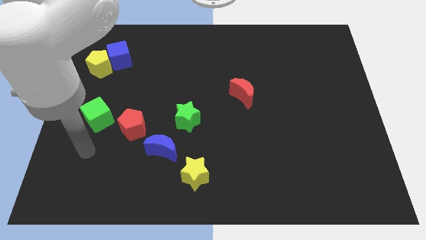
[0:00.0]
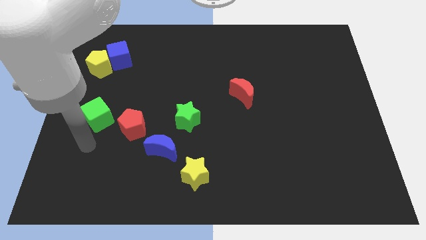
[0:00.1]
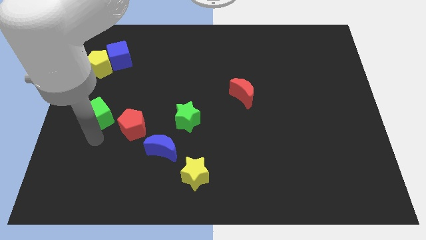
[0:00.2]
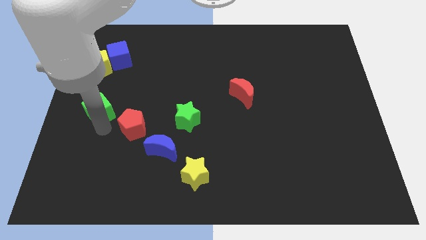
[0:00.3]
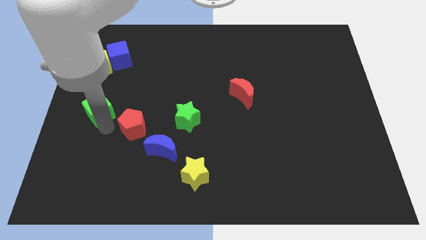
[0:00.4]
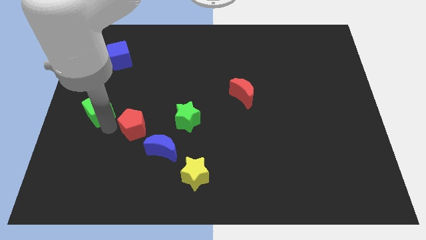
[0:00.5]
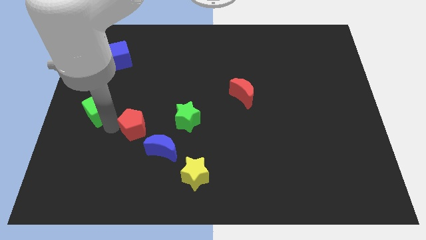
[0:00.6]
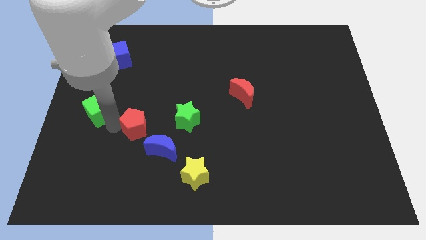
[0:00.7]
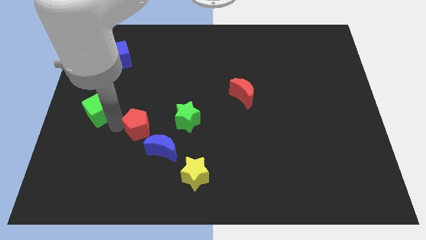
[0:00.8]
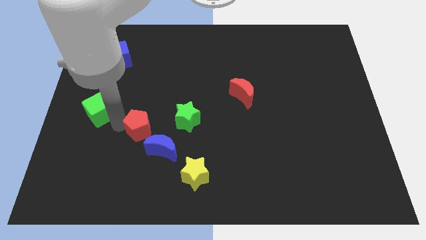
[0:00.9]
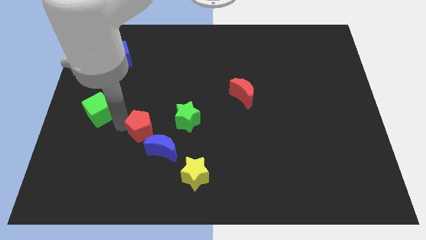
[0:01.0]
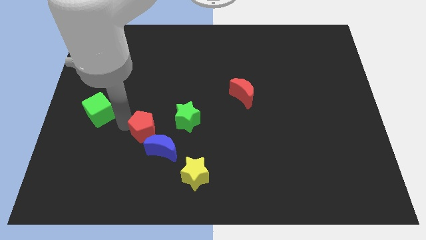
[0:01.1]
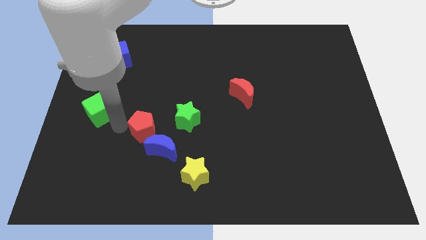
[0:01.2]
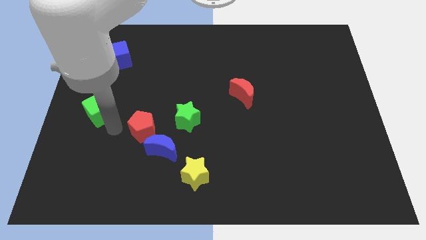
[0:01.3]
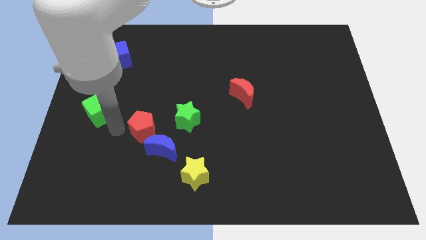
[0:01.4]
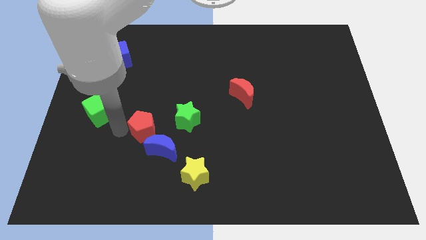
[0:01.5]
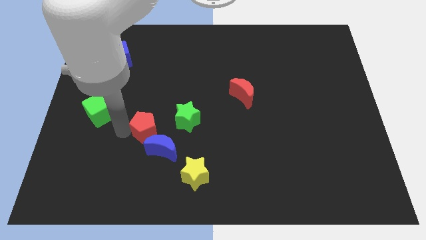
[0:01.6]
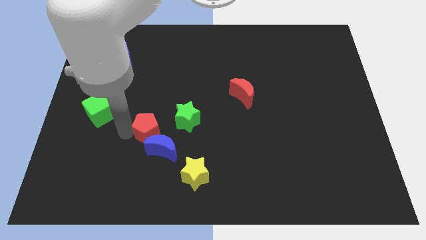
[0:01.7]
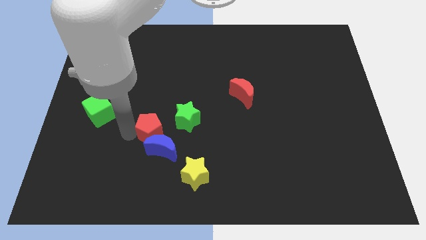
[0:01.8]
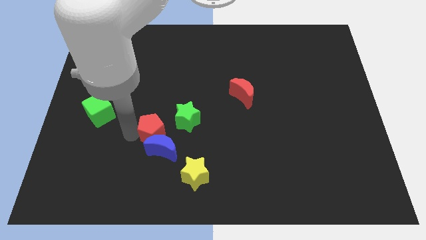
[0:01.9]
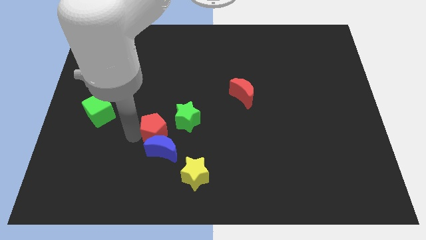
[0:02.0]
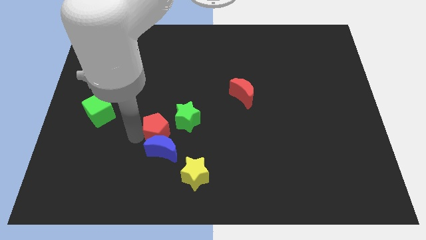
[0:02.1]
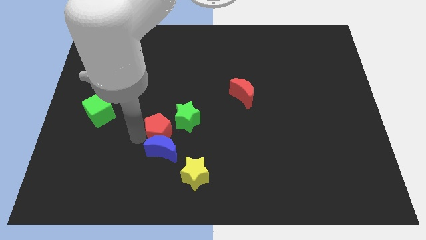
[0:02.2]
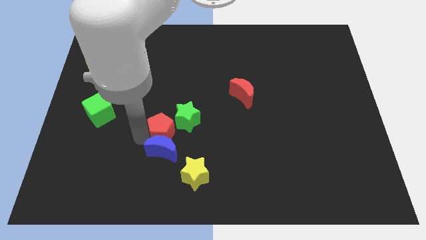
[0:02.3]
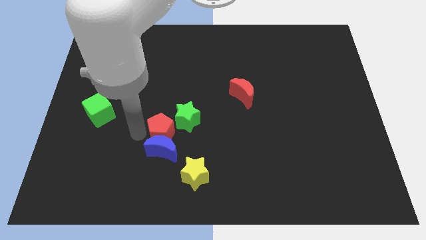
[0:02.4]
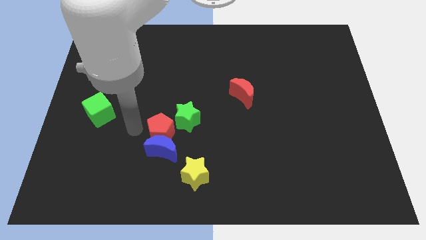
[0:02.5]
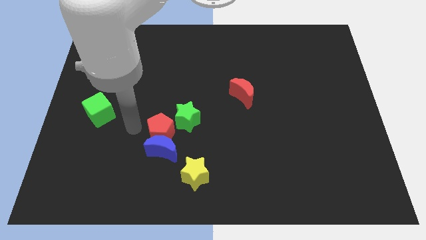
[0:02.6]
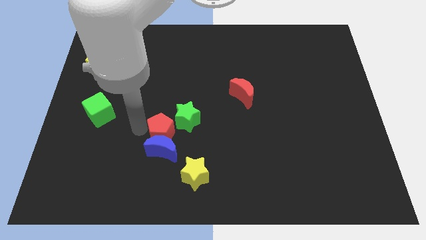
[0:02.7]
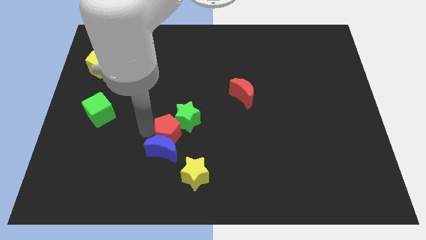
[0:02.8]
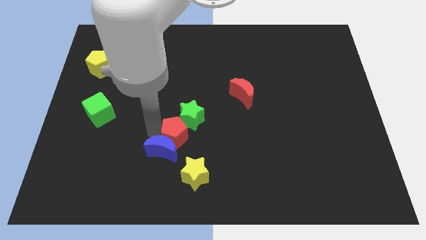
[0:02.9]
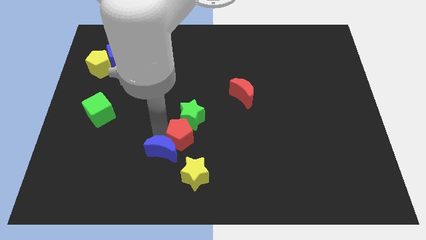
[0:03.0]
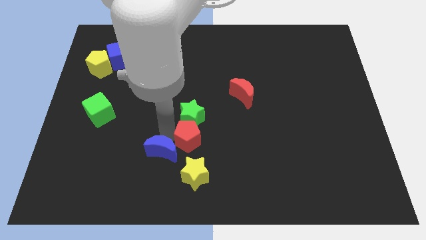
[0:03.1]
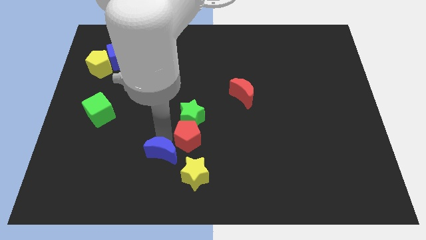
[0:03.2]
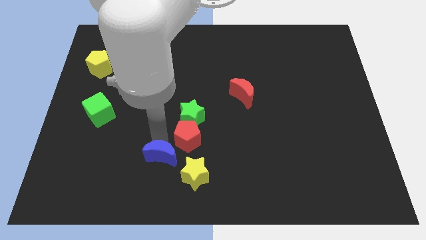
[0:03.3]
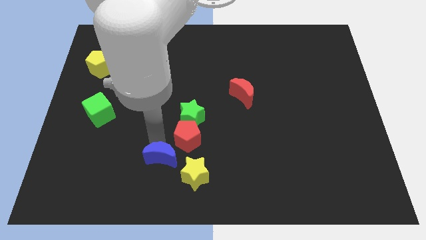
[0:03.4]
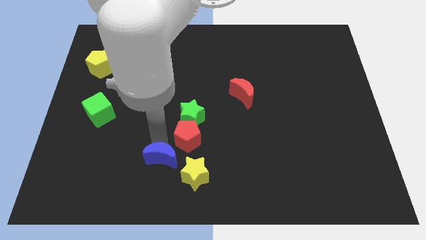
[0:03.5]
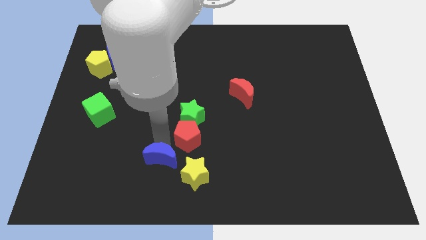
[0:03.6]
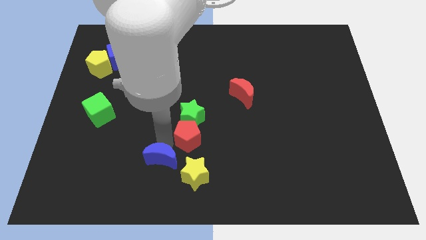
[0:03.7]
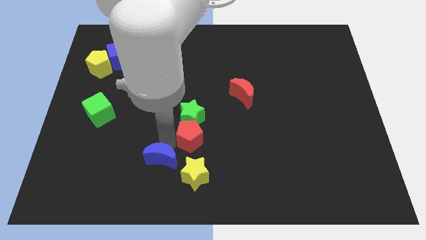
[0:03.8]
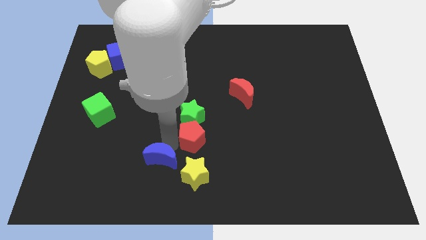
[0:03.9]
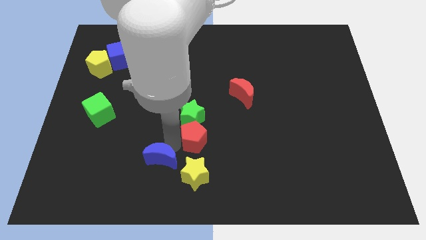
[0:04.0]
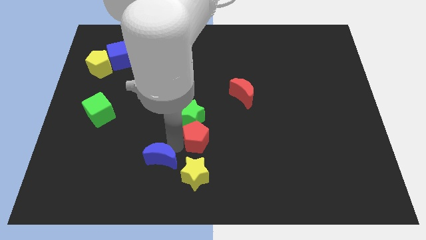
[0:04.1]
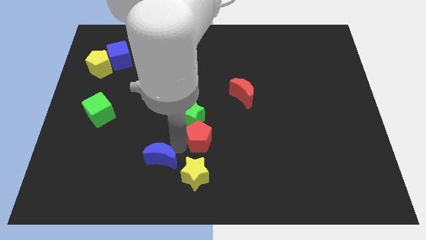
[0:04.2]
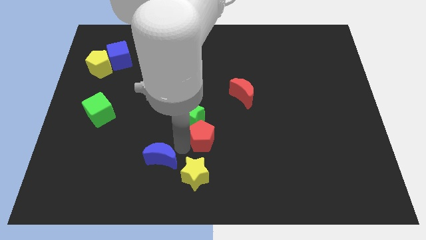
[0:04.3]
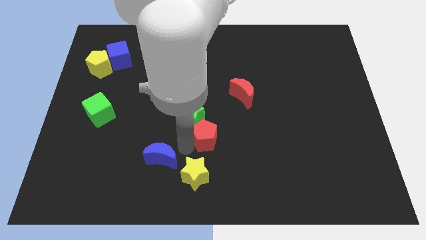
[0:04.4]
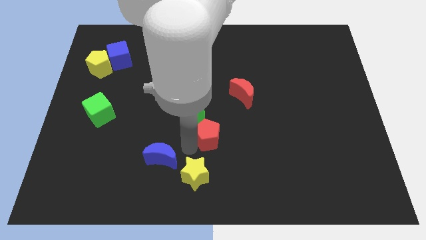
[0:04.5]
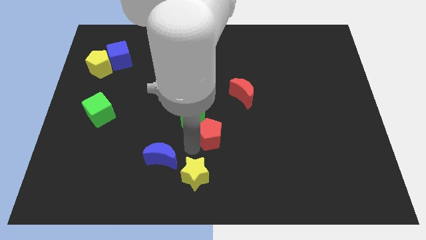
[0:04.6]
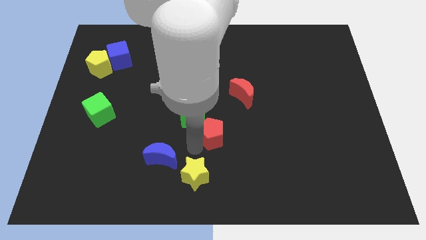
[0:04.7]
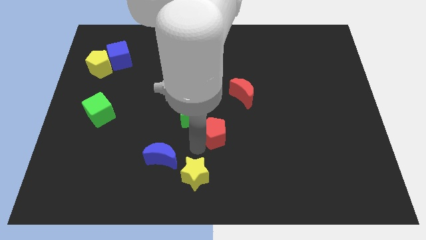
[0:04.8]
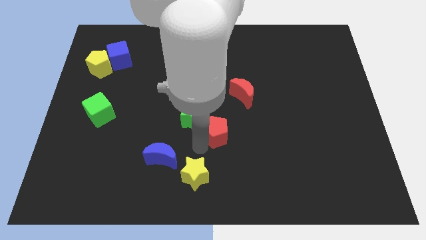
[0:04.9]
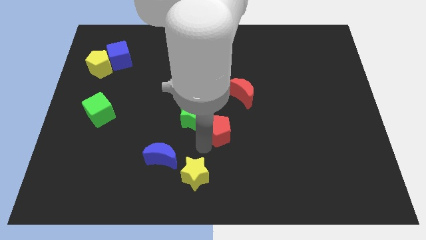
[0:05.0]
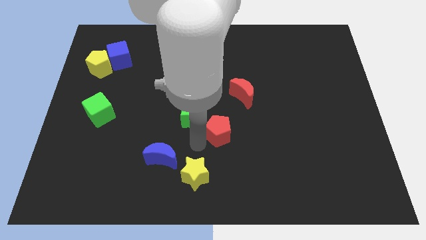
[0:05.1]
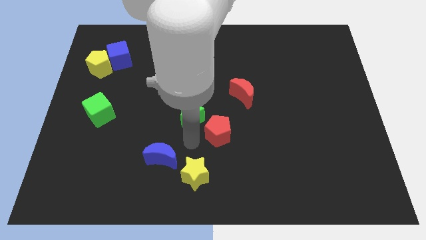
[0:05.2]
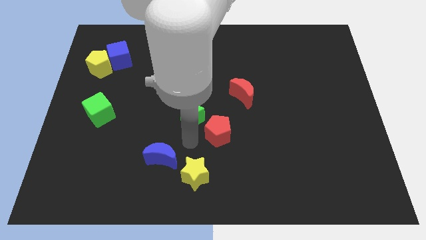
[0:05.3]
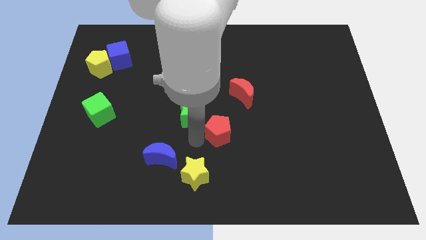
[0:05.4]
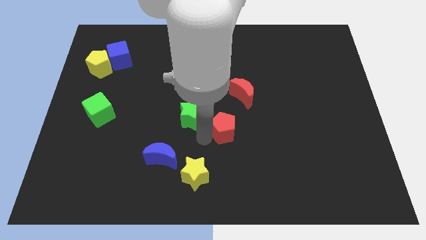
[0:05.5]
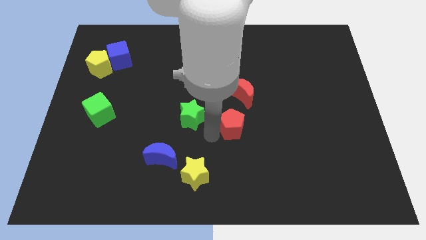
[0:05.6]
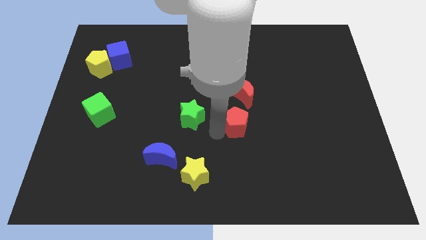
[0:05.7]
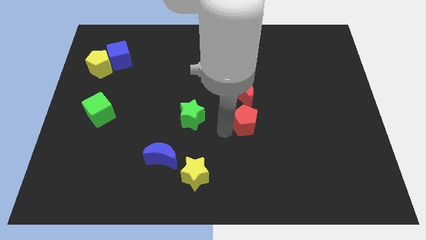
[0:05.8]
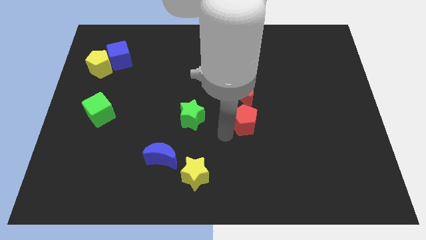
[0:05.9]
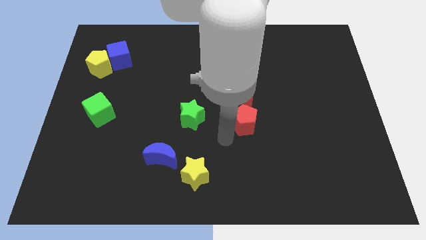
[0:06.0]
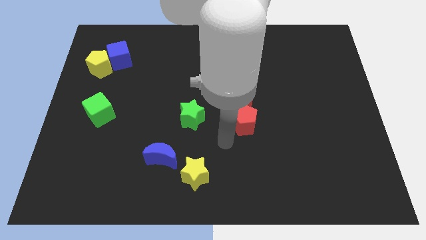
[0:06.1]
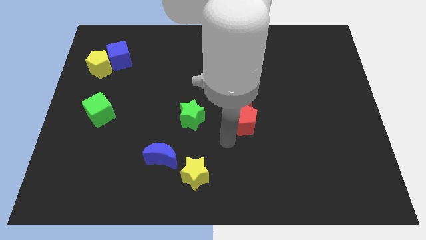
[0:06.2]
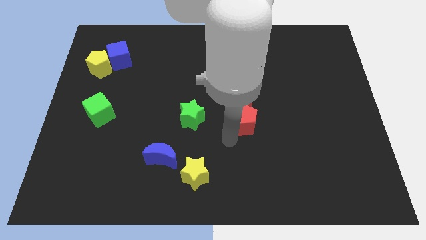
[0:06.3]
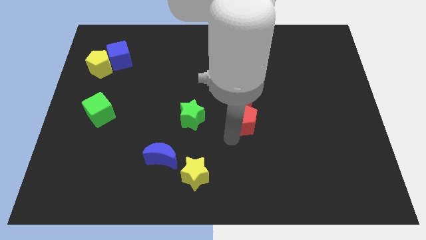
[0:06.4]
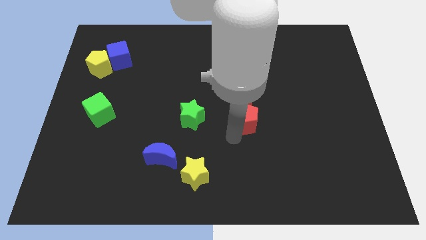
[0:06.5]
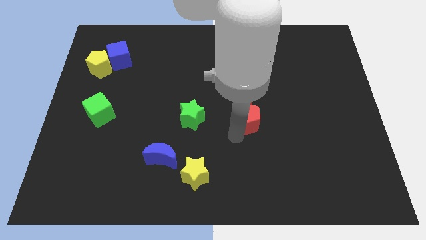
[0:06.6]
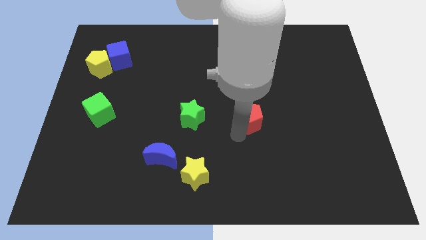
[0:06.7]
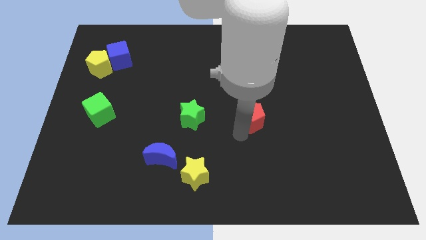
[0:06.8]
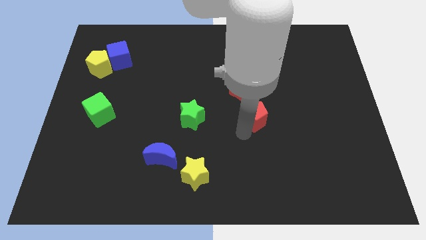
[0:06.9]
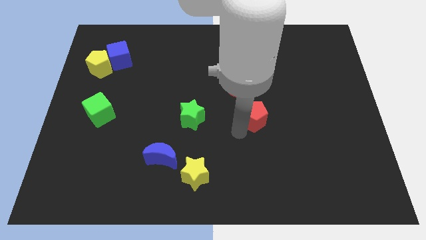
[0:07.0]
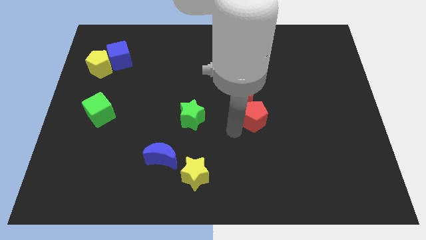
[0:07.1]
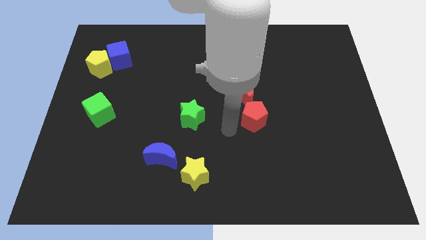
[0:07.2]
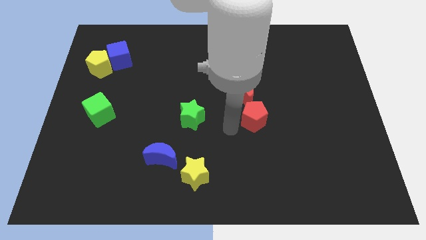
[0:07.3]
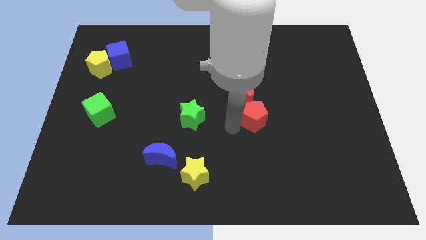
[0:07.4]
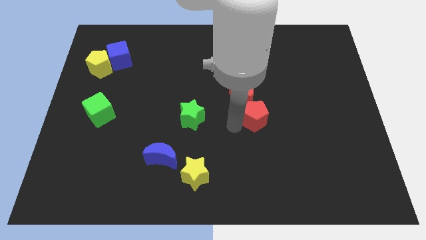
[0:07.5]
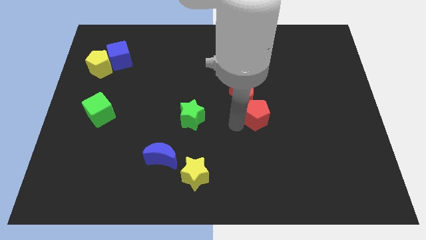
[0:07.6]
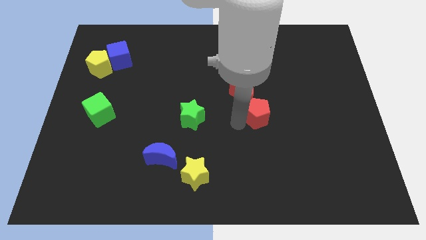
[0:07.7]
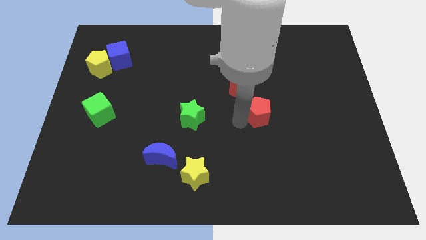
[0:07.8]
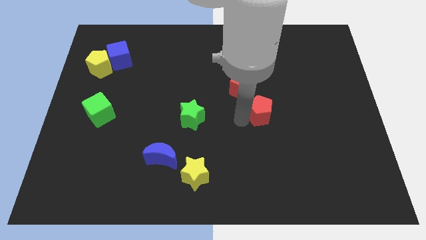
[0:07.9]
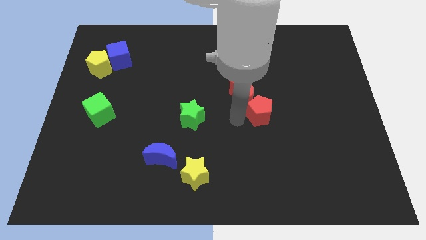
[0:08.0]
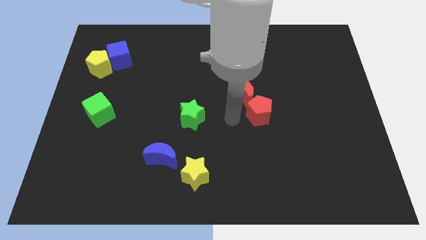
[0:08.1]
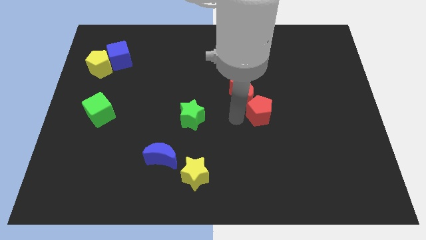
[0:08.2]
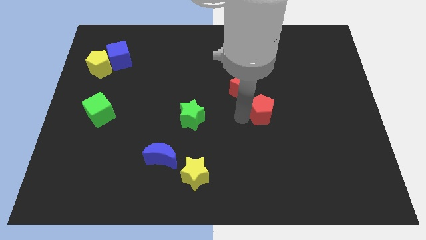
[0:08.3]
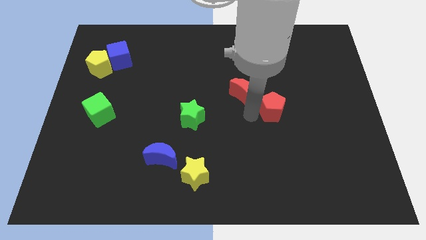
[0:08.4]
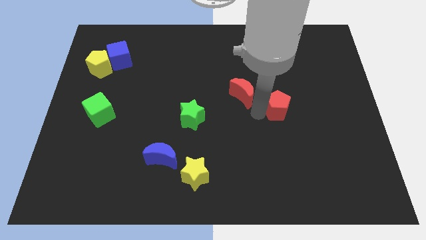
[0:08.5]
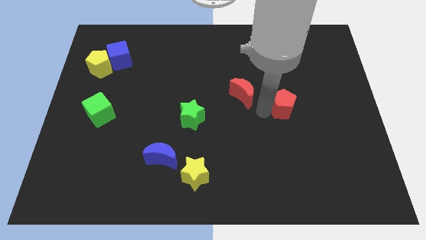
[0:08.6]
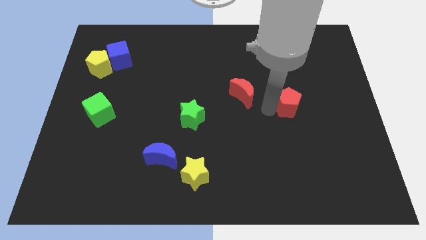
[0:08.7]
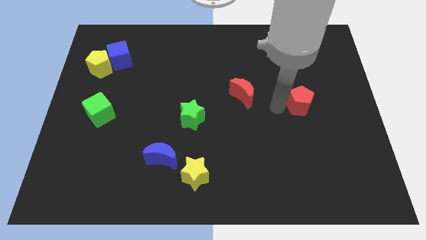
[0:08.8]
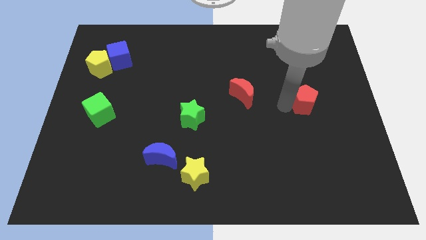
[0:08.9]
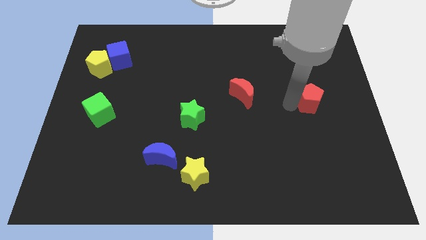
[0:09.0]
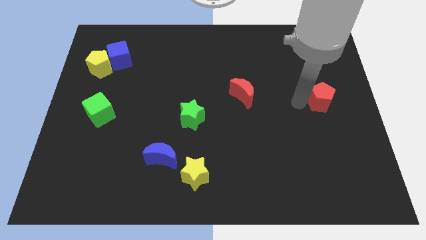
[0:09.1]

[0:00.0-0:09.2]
push the red pentagon to the center right
